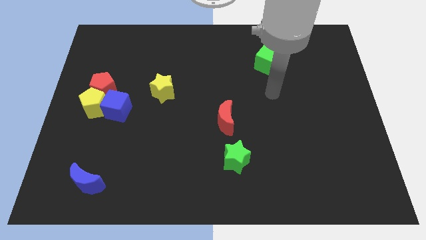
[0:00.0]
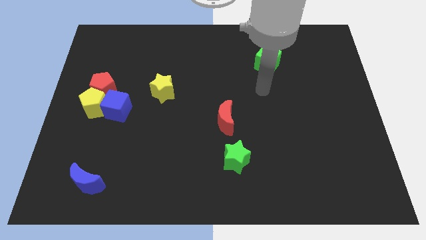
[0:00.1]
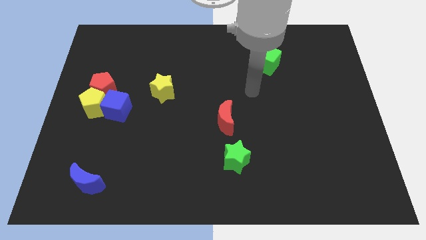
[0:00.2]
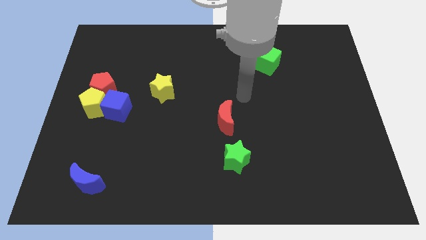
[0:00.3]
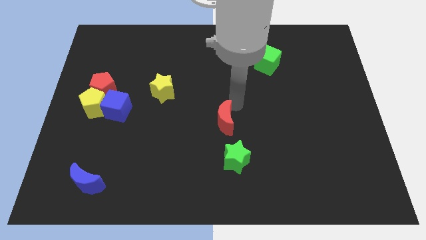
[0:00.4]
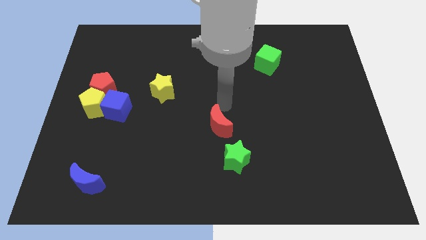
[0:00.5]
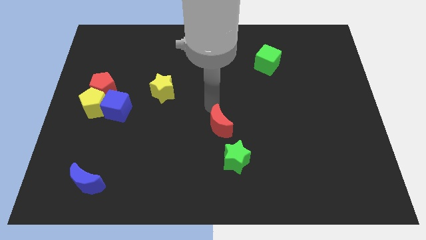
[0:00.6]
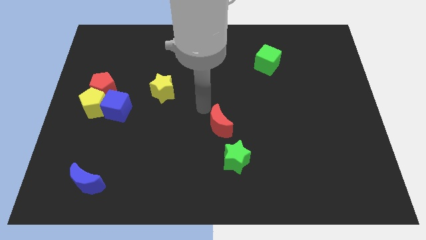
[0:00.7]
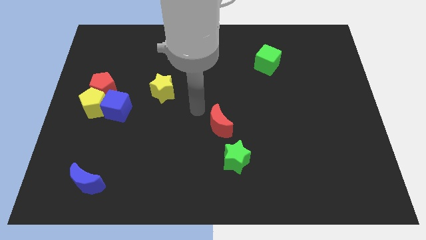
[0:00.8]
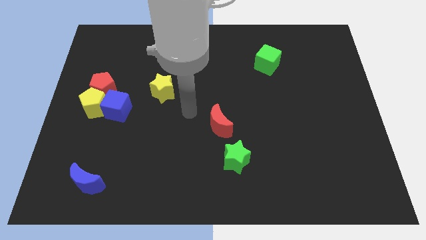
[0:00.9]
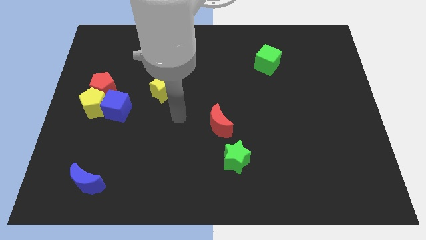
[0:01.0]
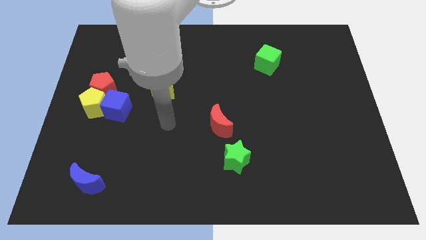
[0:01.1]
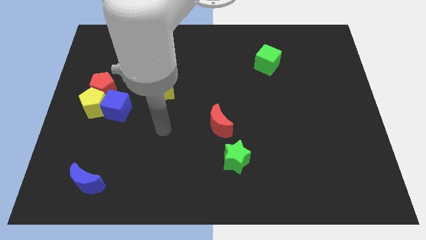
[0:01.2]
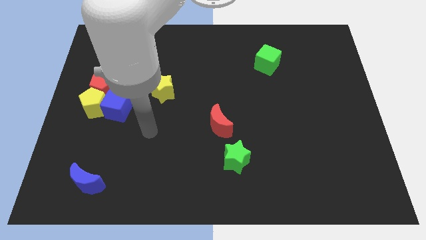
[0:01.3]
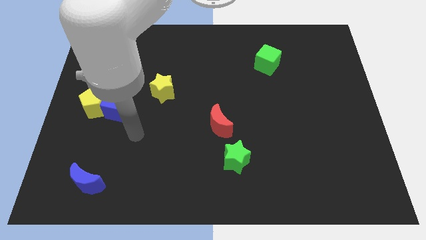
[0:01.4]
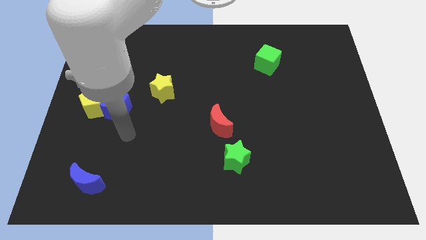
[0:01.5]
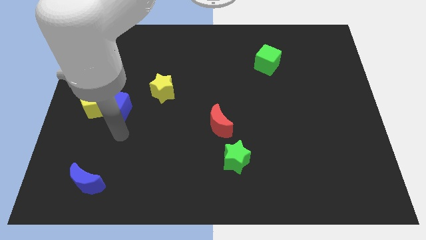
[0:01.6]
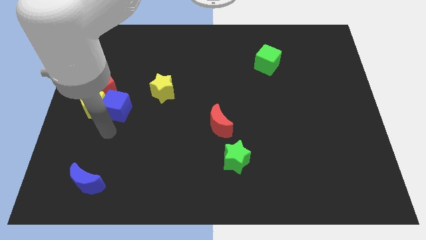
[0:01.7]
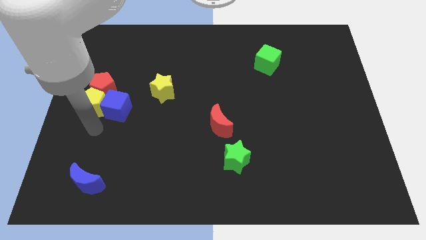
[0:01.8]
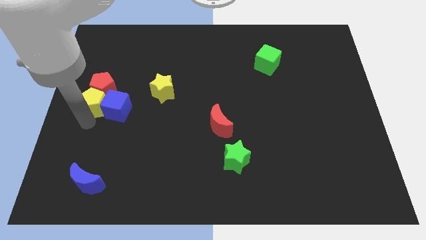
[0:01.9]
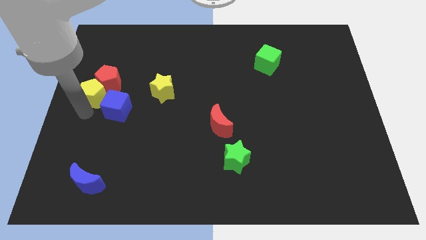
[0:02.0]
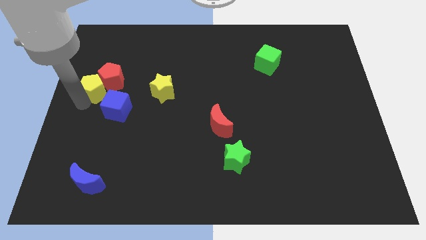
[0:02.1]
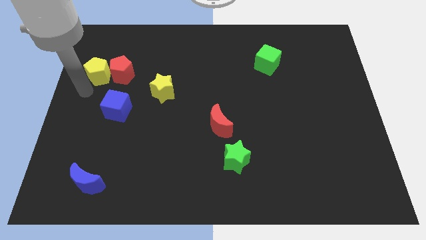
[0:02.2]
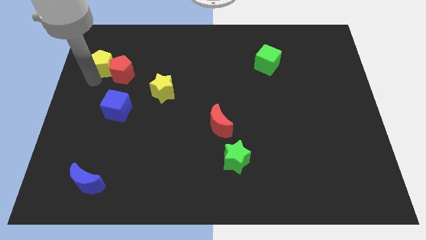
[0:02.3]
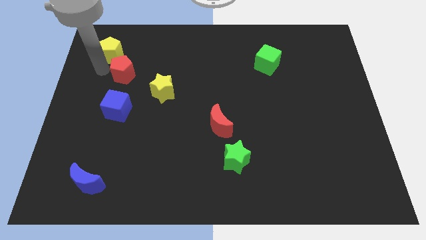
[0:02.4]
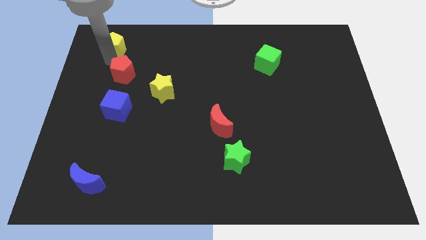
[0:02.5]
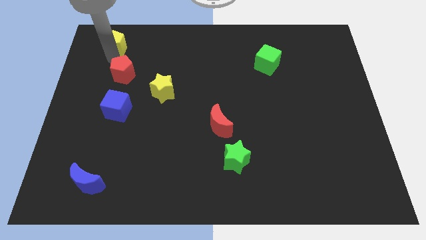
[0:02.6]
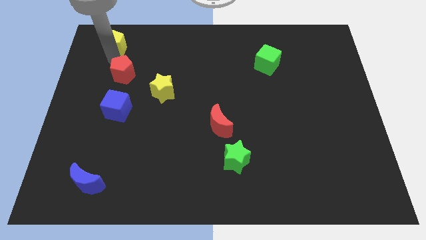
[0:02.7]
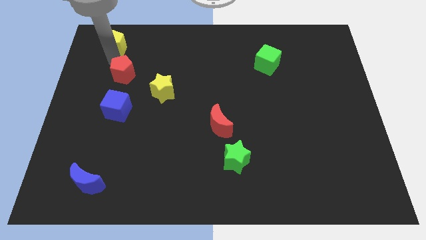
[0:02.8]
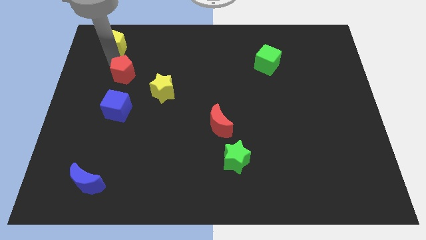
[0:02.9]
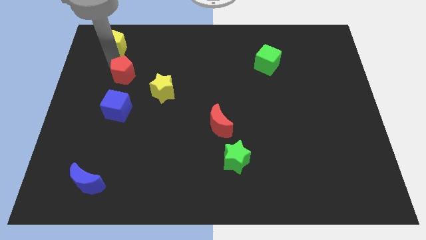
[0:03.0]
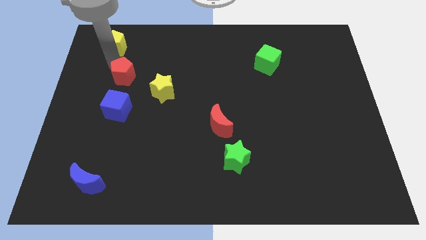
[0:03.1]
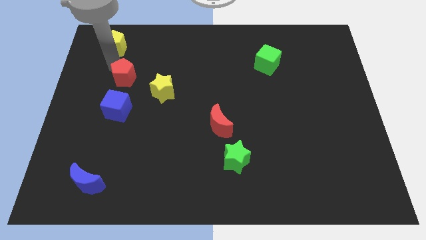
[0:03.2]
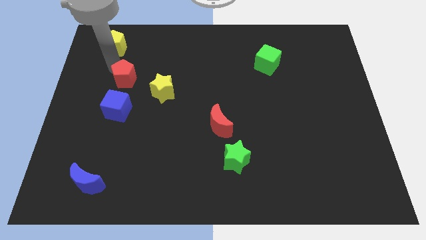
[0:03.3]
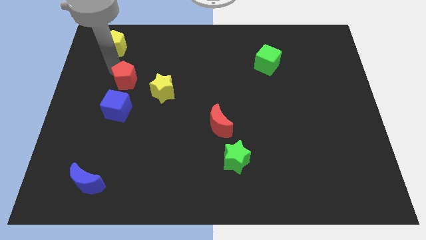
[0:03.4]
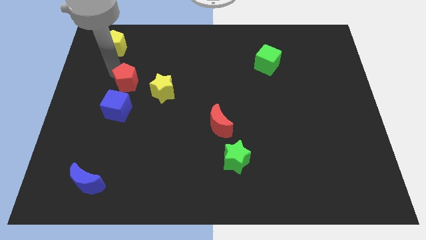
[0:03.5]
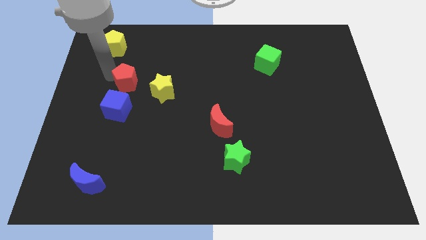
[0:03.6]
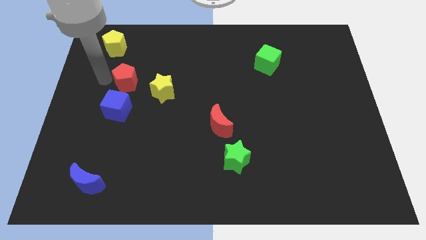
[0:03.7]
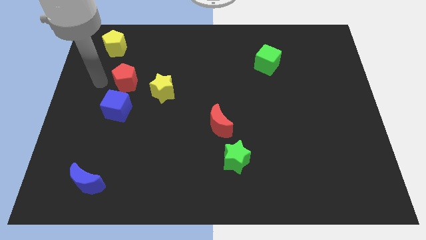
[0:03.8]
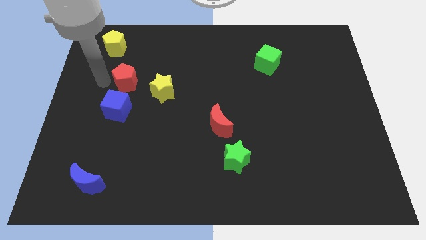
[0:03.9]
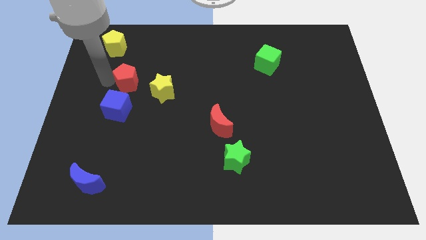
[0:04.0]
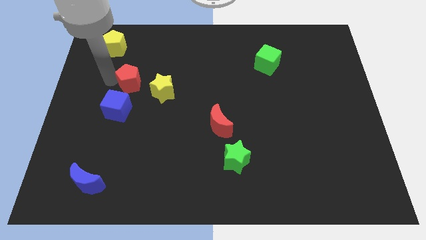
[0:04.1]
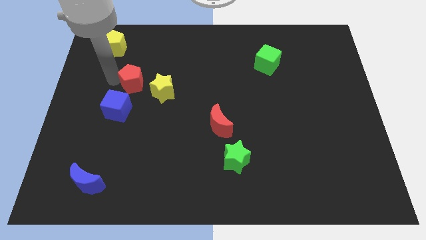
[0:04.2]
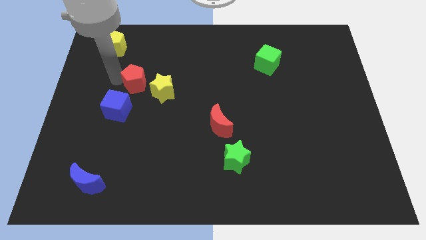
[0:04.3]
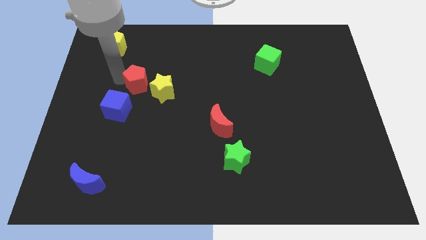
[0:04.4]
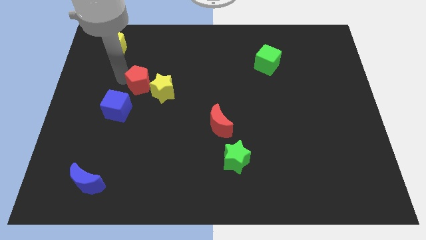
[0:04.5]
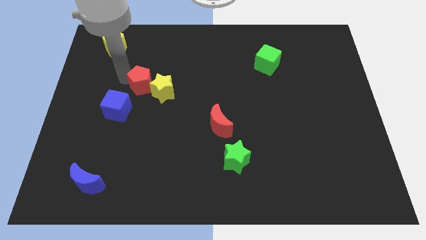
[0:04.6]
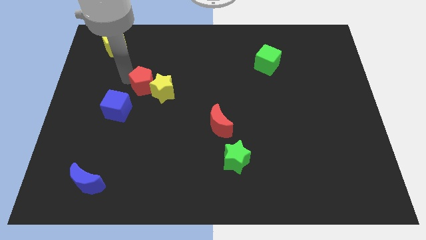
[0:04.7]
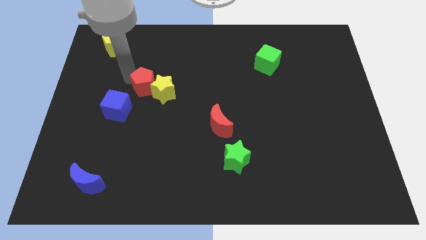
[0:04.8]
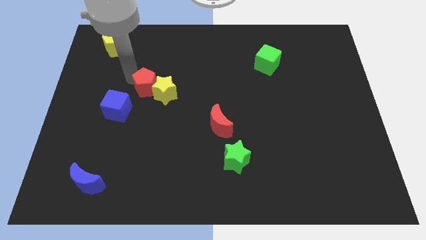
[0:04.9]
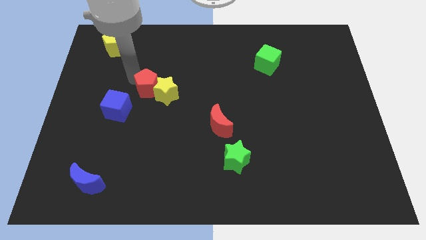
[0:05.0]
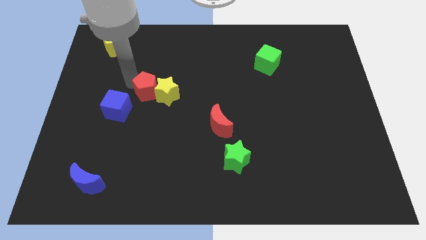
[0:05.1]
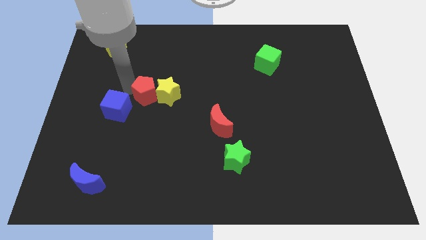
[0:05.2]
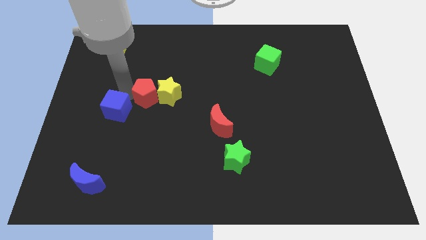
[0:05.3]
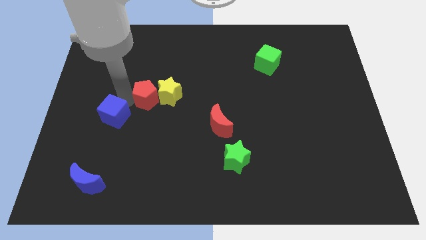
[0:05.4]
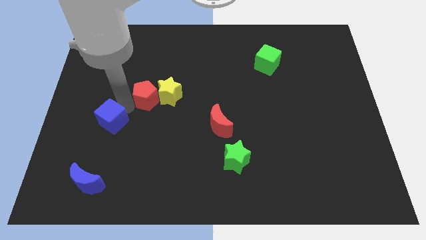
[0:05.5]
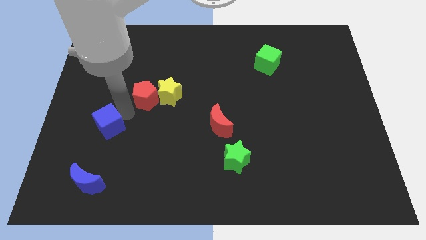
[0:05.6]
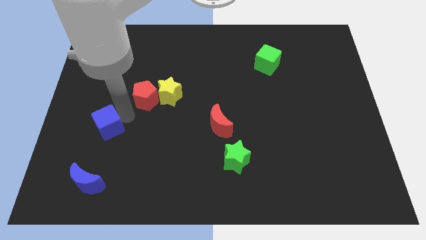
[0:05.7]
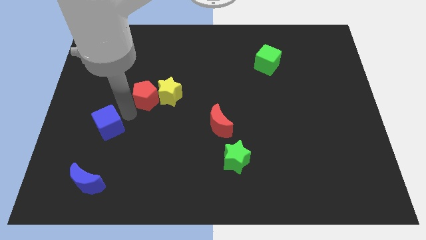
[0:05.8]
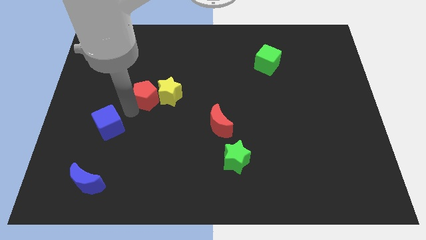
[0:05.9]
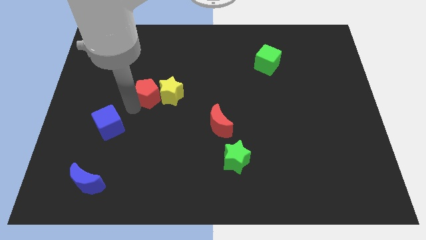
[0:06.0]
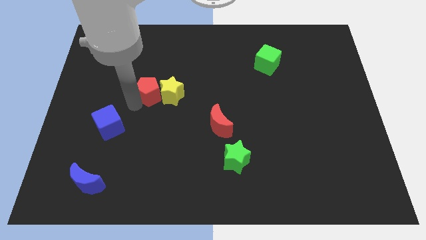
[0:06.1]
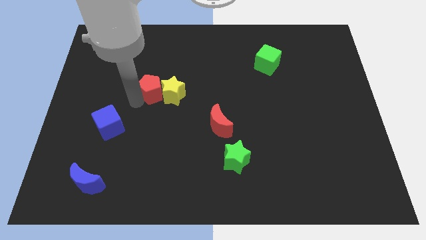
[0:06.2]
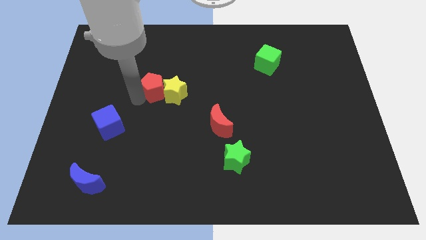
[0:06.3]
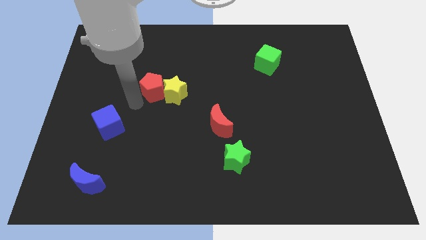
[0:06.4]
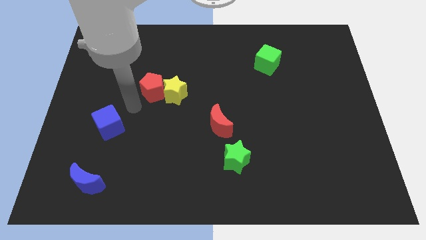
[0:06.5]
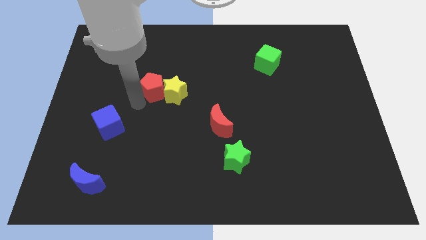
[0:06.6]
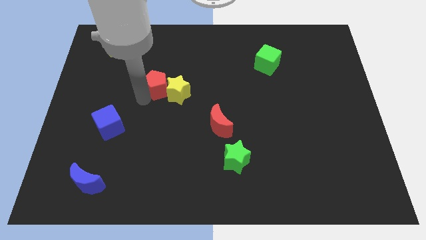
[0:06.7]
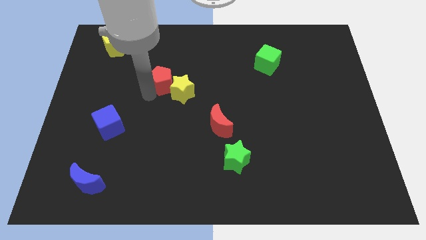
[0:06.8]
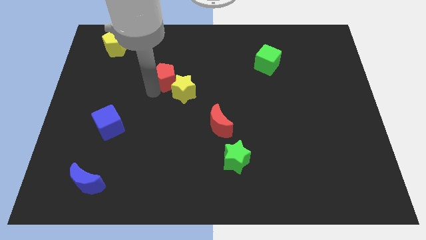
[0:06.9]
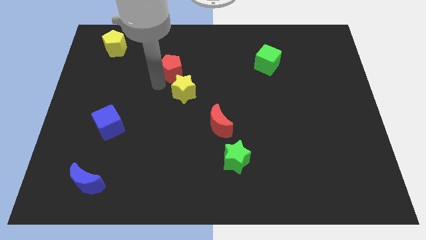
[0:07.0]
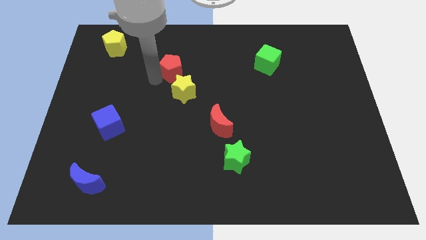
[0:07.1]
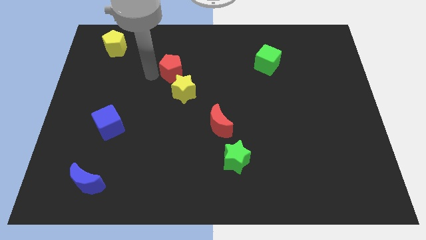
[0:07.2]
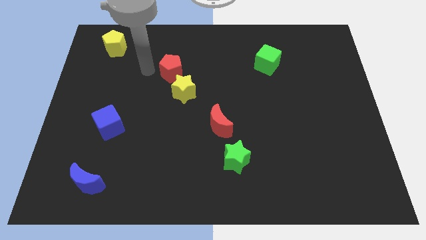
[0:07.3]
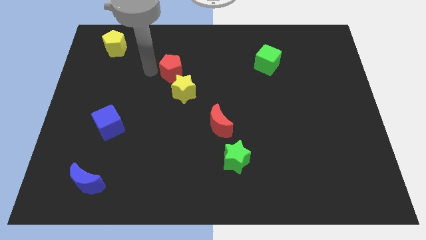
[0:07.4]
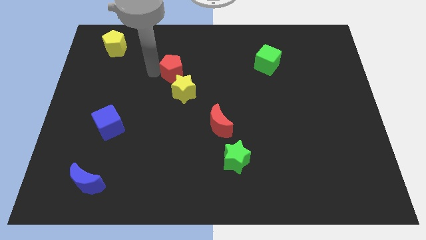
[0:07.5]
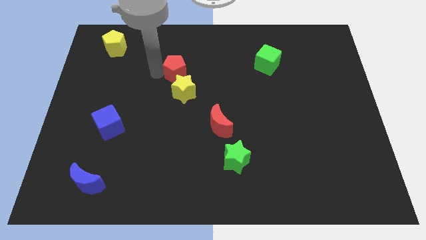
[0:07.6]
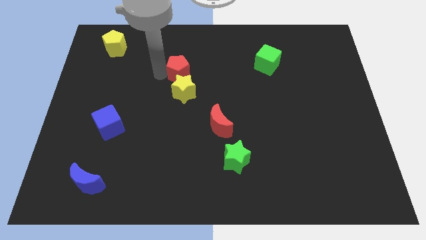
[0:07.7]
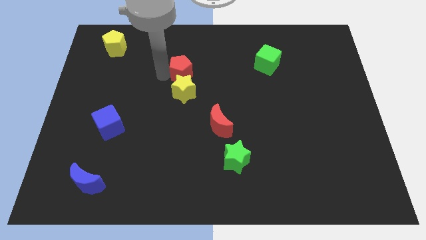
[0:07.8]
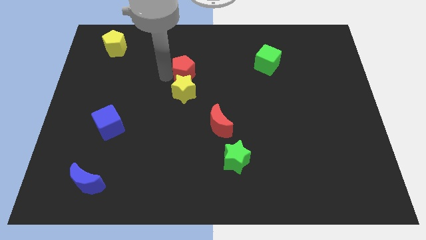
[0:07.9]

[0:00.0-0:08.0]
put the red pentagon to the top right side of the yellow star
